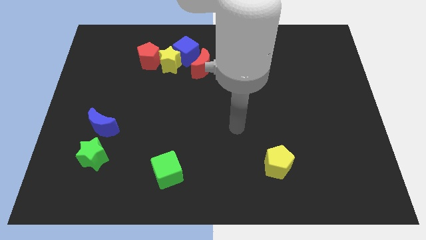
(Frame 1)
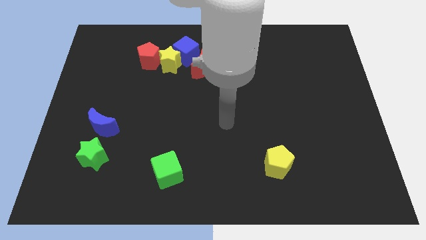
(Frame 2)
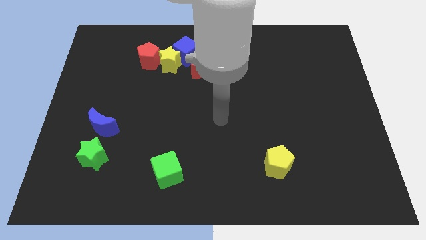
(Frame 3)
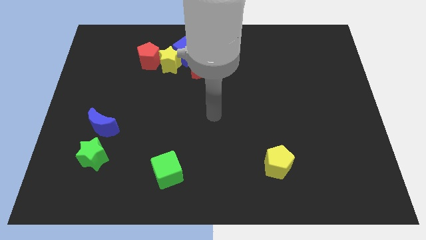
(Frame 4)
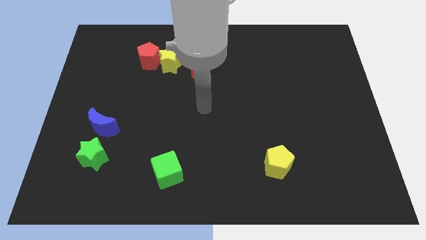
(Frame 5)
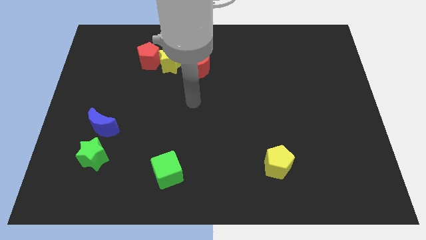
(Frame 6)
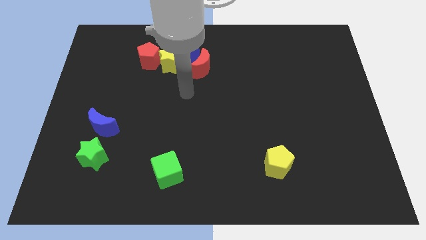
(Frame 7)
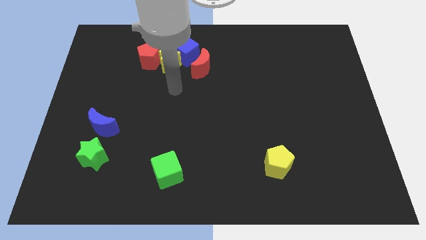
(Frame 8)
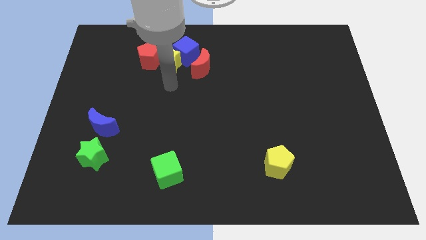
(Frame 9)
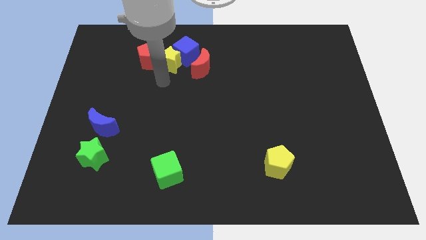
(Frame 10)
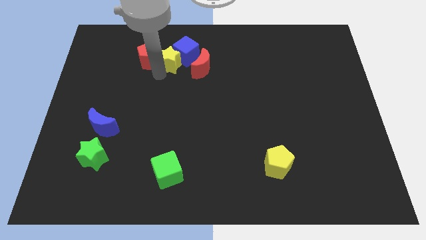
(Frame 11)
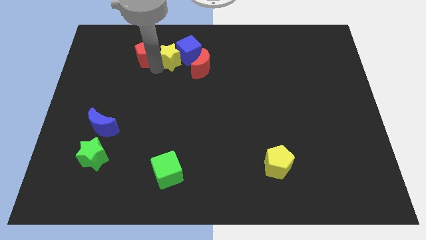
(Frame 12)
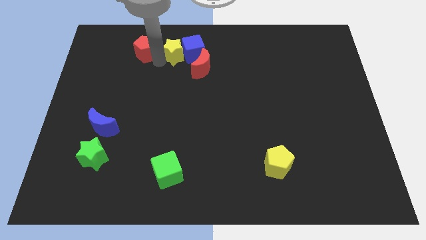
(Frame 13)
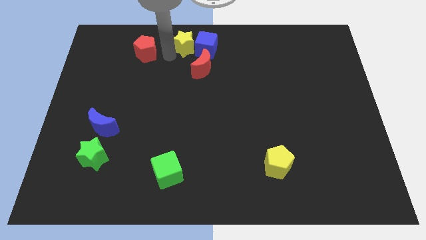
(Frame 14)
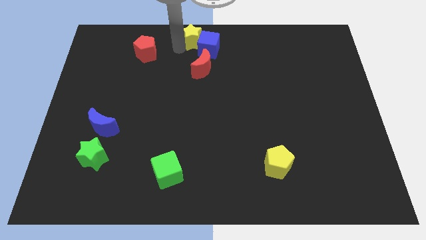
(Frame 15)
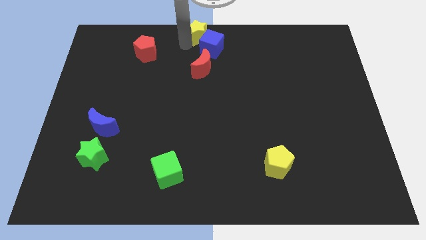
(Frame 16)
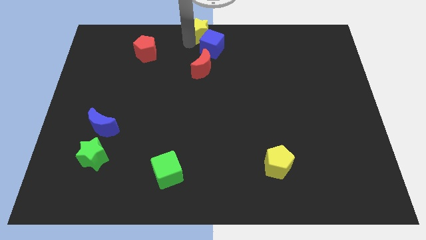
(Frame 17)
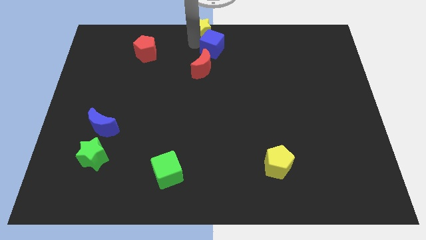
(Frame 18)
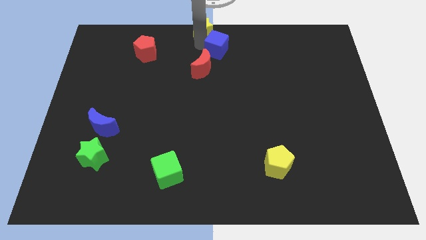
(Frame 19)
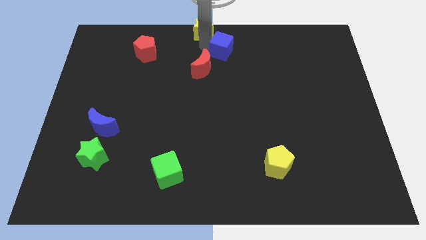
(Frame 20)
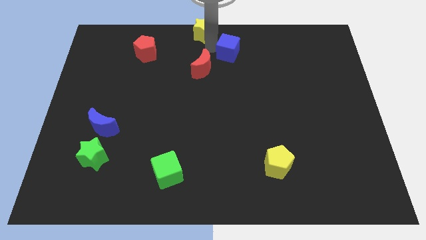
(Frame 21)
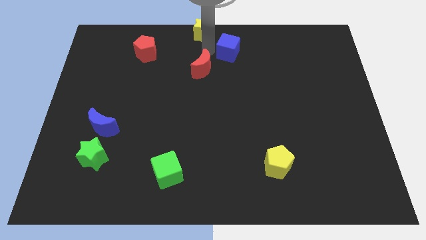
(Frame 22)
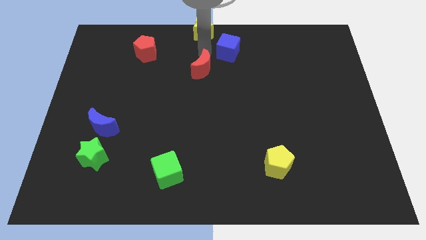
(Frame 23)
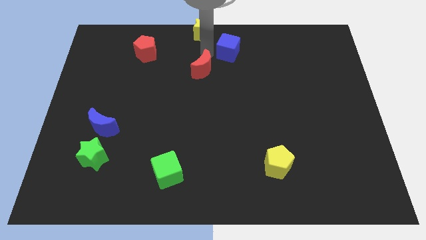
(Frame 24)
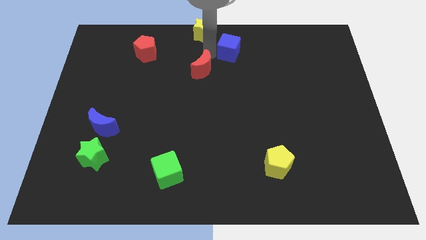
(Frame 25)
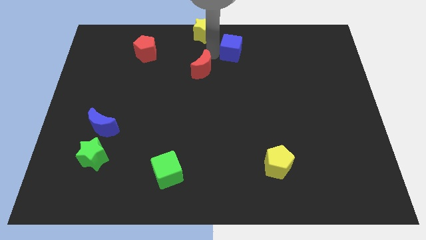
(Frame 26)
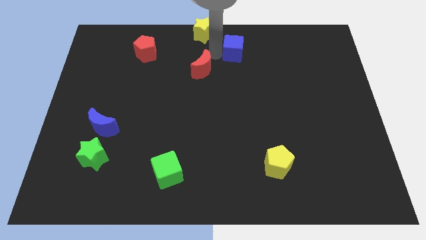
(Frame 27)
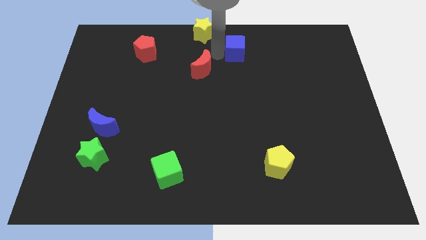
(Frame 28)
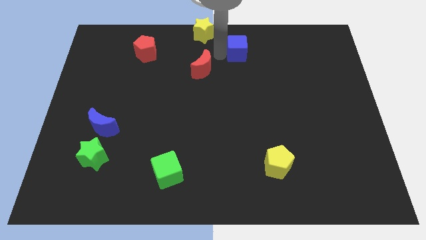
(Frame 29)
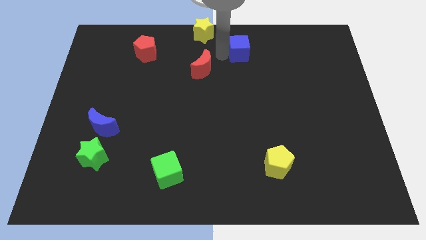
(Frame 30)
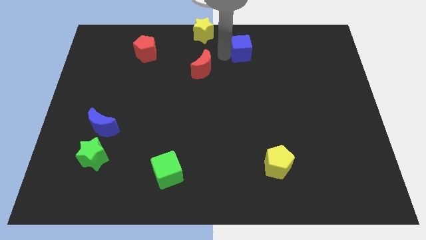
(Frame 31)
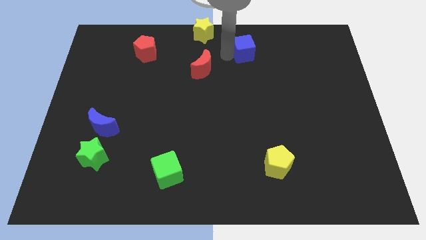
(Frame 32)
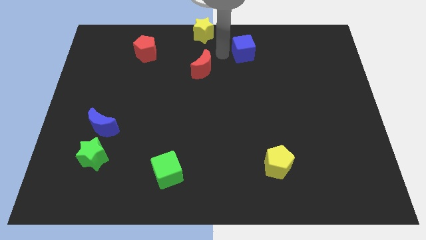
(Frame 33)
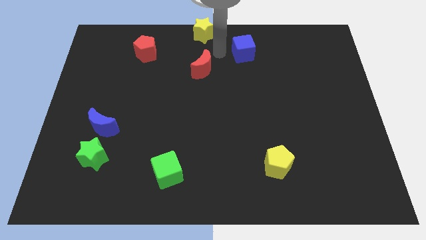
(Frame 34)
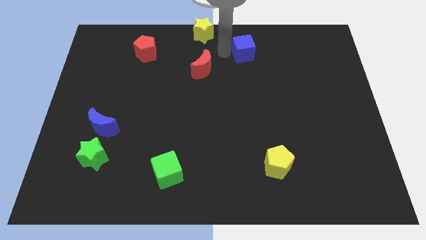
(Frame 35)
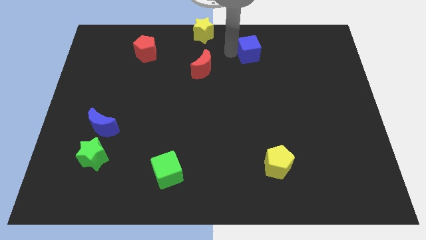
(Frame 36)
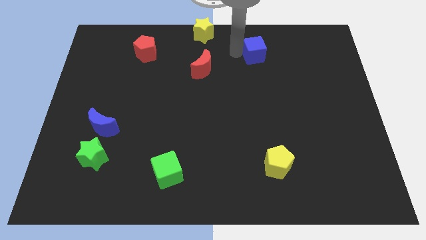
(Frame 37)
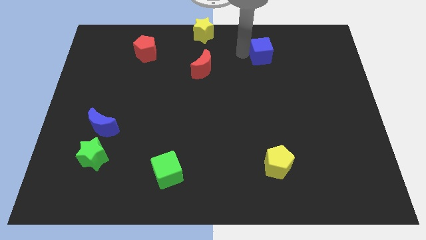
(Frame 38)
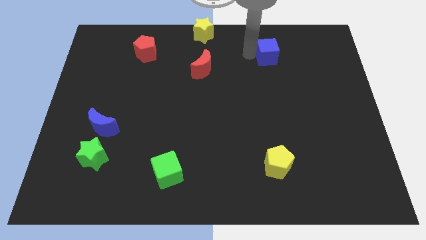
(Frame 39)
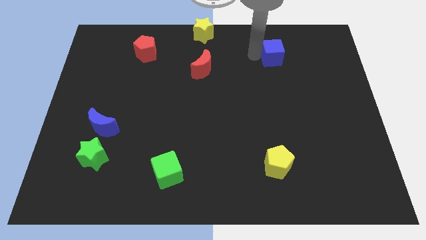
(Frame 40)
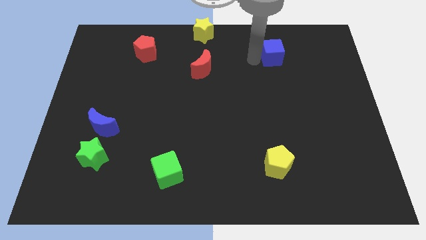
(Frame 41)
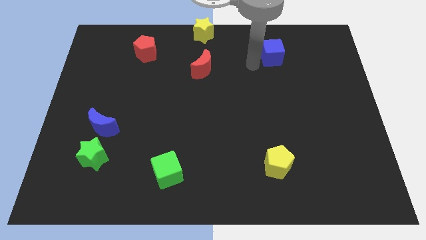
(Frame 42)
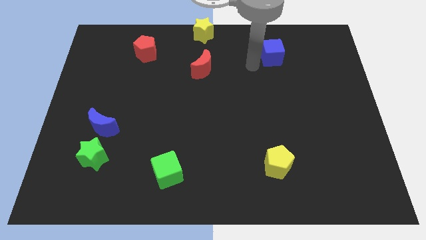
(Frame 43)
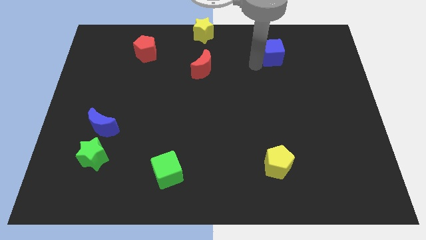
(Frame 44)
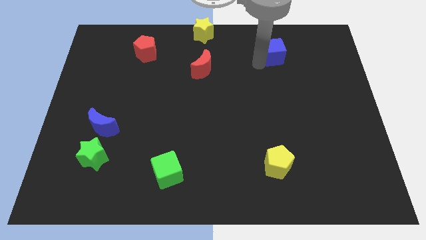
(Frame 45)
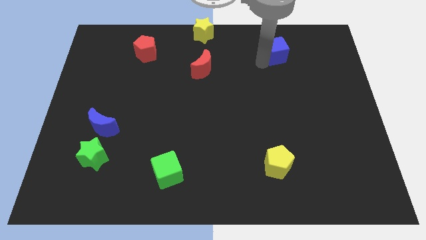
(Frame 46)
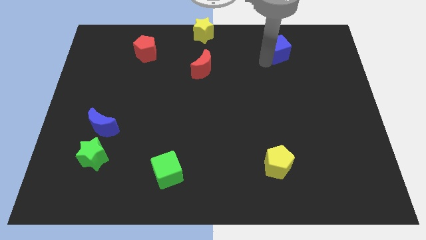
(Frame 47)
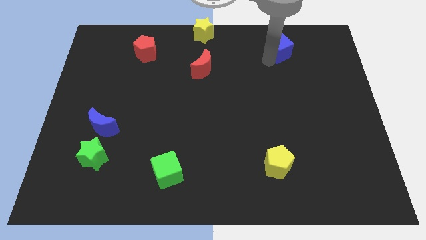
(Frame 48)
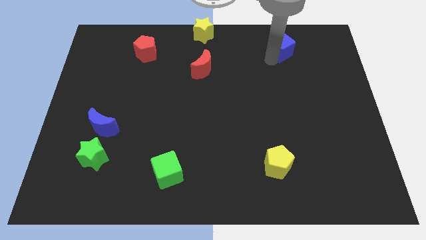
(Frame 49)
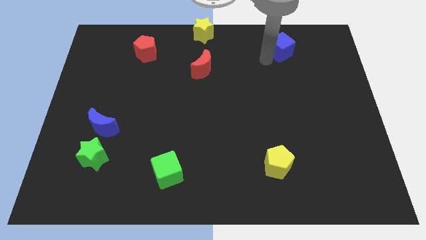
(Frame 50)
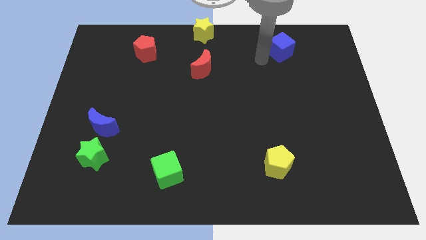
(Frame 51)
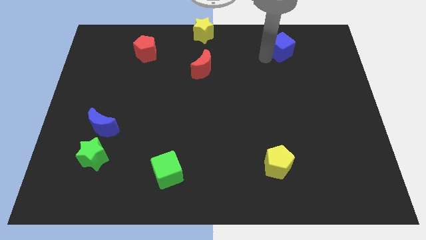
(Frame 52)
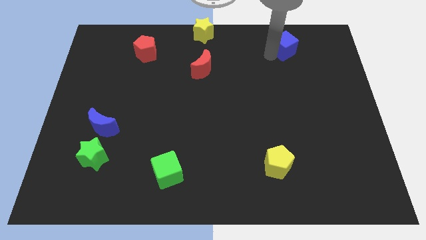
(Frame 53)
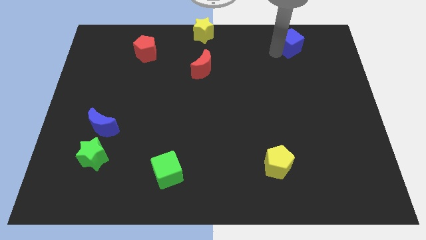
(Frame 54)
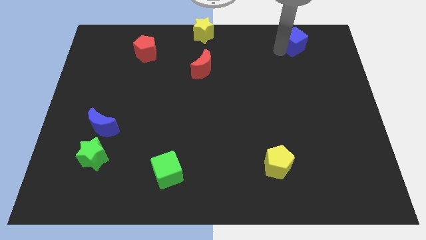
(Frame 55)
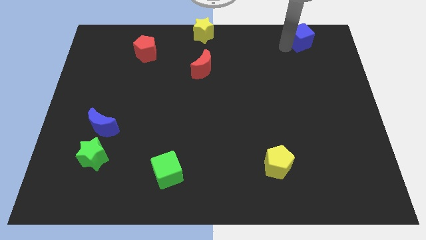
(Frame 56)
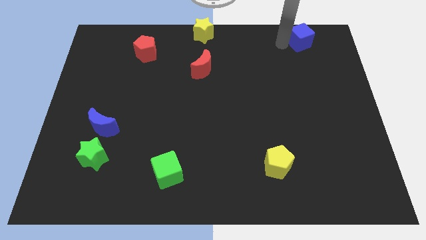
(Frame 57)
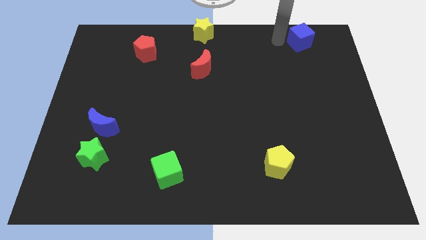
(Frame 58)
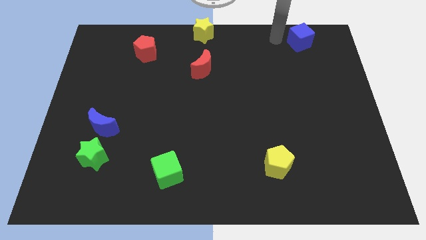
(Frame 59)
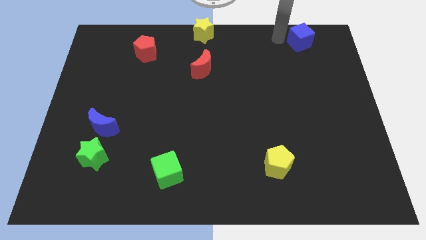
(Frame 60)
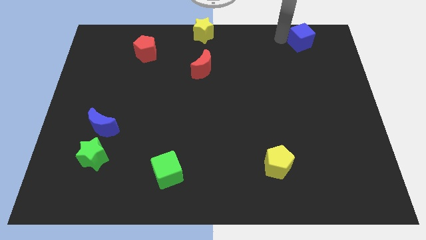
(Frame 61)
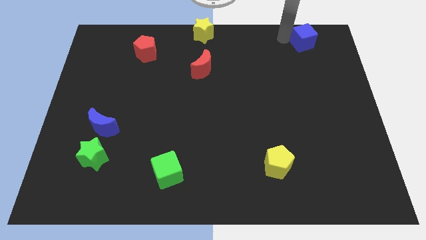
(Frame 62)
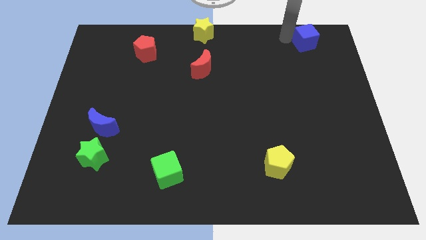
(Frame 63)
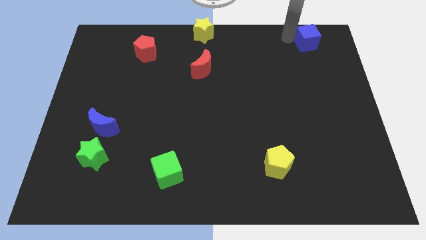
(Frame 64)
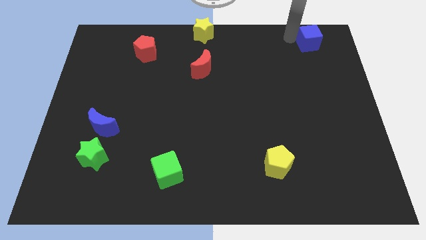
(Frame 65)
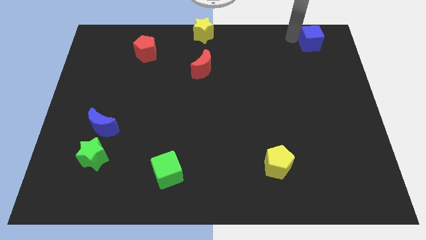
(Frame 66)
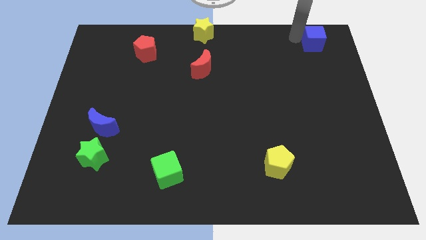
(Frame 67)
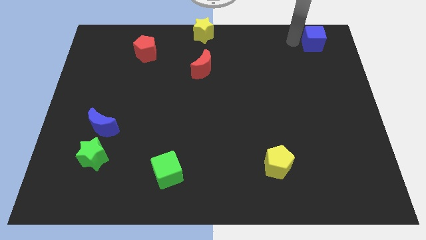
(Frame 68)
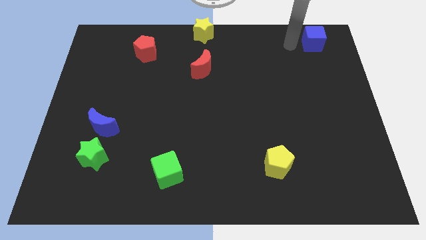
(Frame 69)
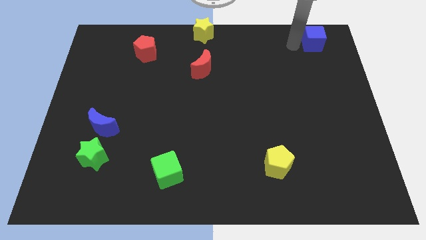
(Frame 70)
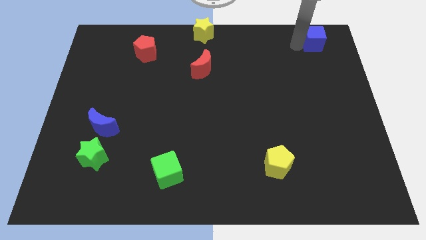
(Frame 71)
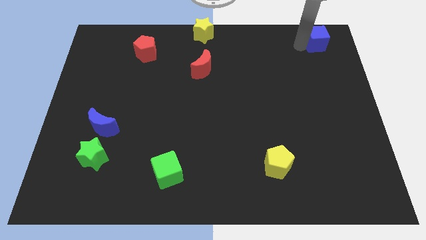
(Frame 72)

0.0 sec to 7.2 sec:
put the blue cube to the upper right corner
